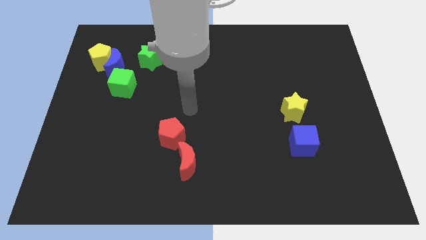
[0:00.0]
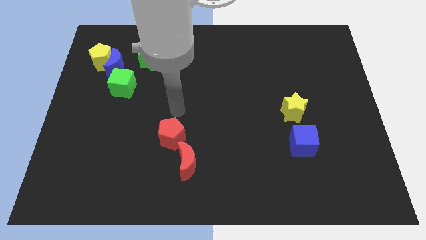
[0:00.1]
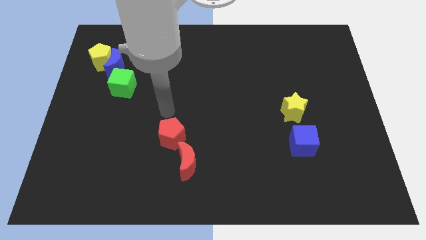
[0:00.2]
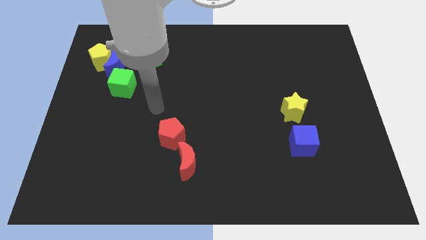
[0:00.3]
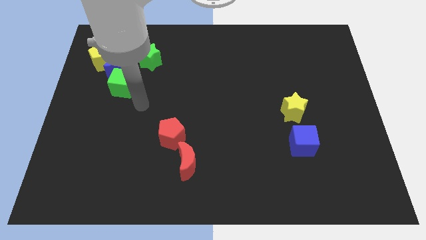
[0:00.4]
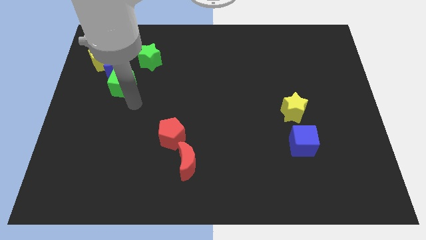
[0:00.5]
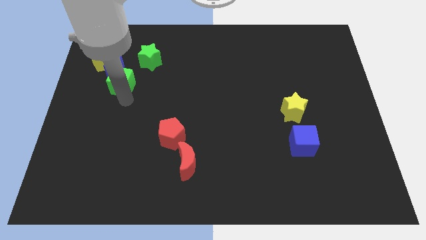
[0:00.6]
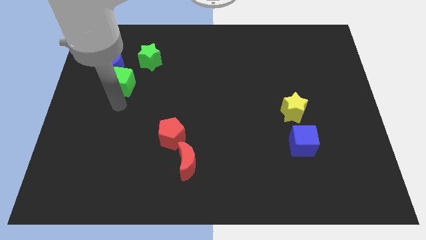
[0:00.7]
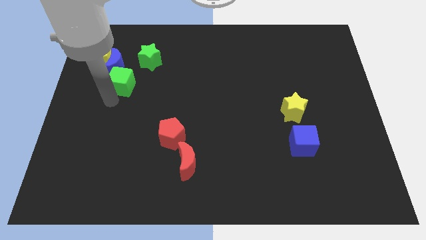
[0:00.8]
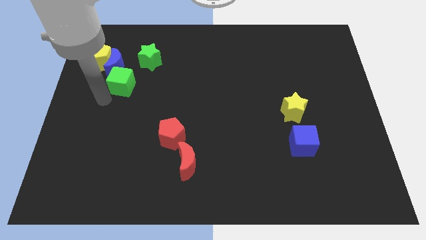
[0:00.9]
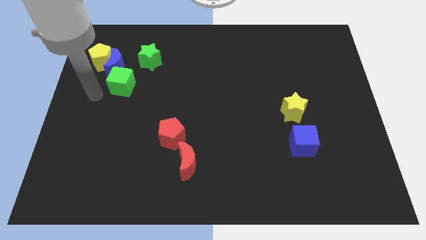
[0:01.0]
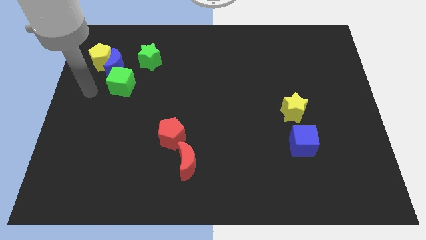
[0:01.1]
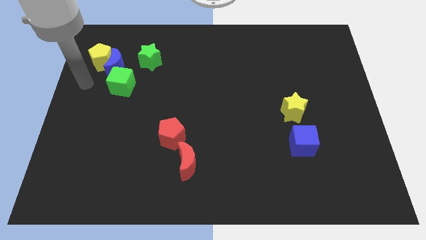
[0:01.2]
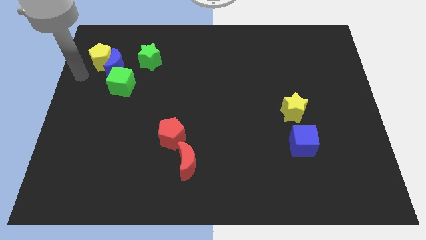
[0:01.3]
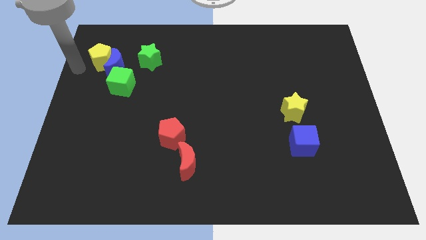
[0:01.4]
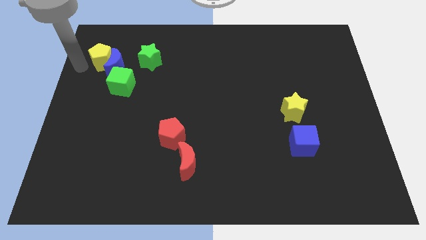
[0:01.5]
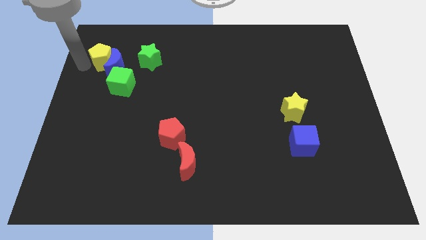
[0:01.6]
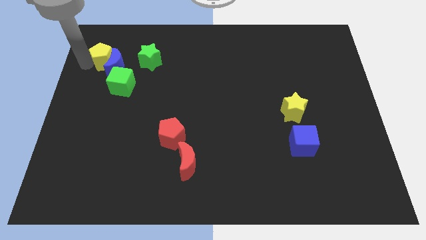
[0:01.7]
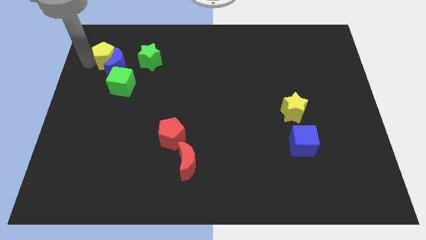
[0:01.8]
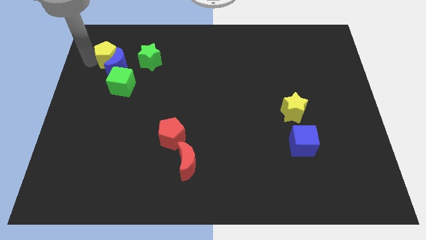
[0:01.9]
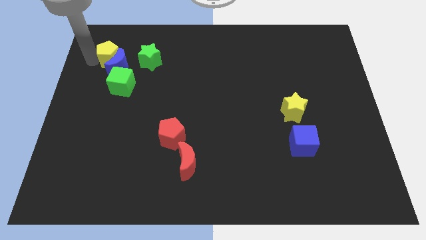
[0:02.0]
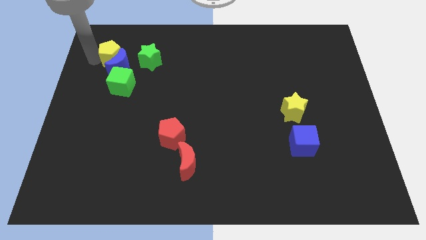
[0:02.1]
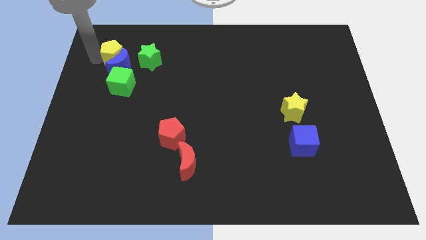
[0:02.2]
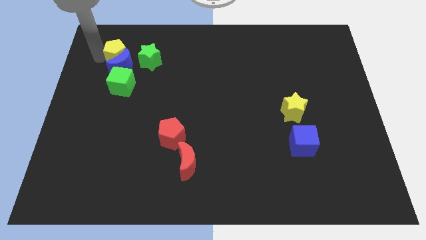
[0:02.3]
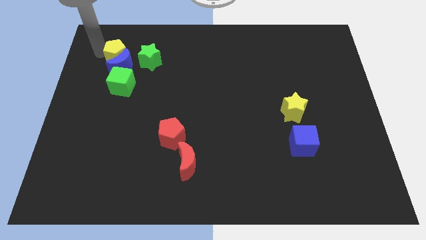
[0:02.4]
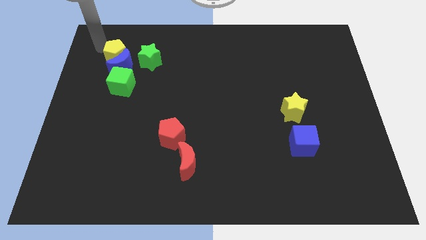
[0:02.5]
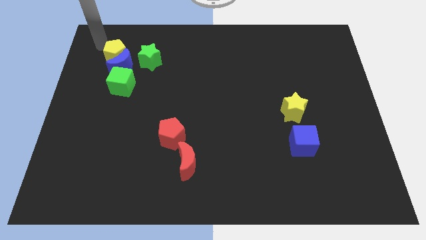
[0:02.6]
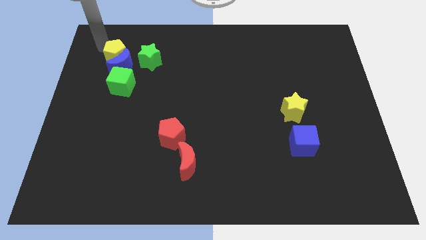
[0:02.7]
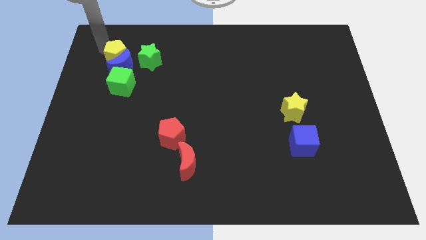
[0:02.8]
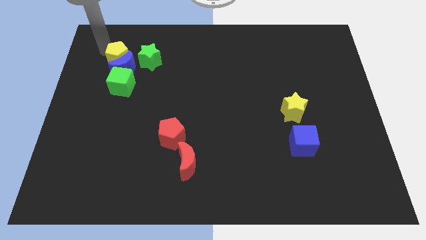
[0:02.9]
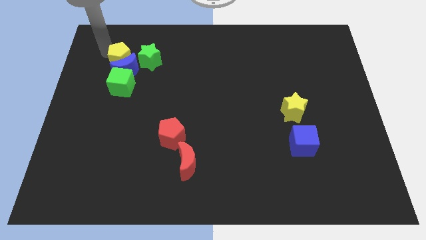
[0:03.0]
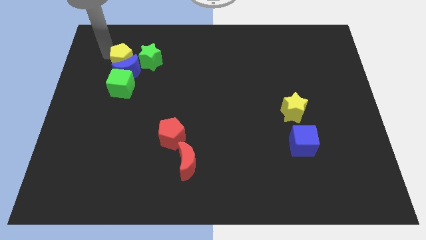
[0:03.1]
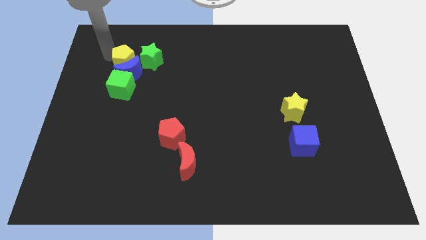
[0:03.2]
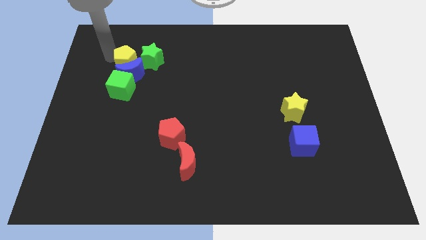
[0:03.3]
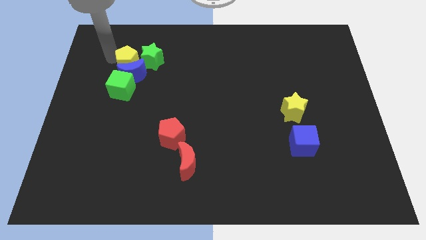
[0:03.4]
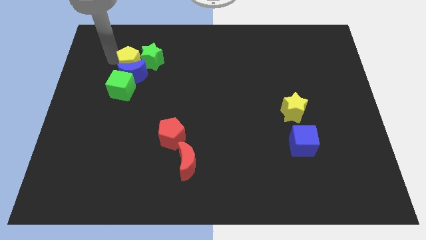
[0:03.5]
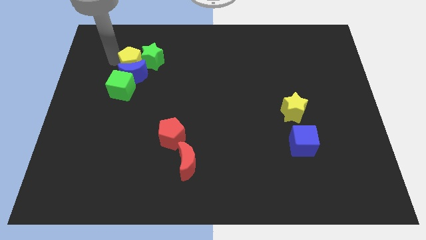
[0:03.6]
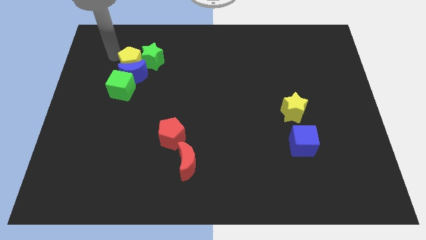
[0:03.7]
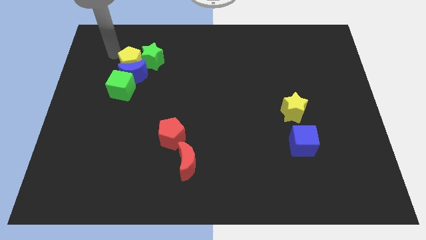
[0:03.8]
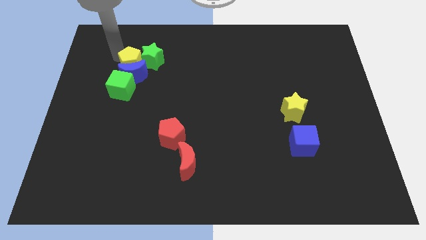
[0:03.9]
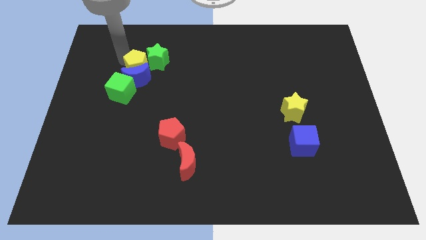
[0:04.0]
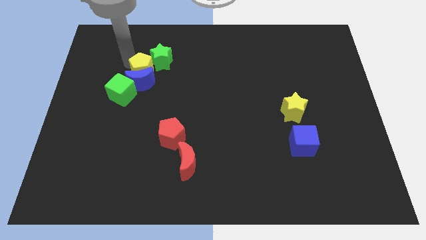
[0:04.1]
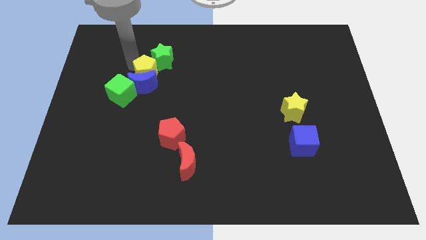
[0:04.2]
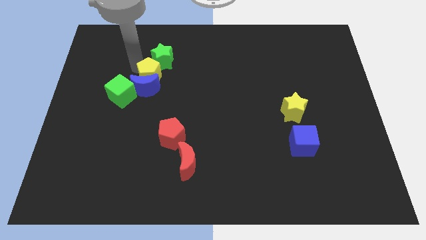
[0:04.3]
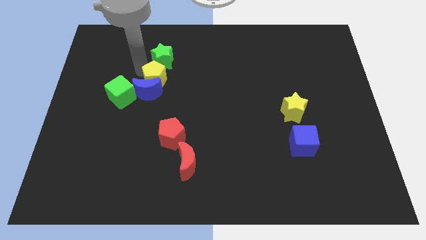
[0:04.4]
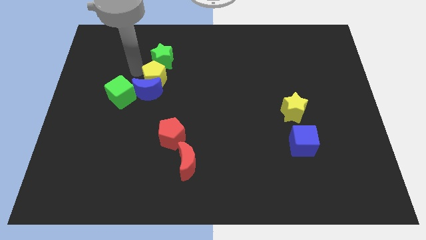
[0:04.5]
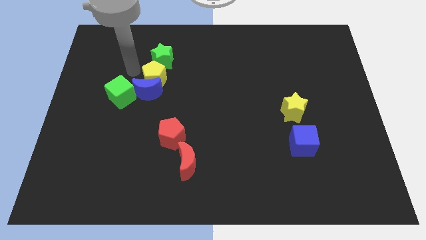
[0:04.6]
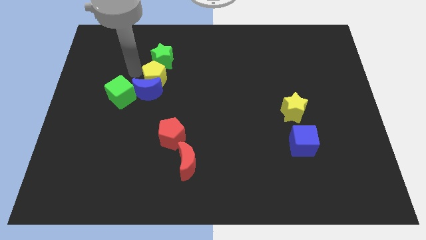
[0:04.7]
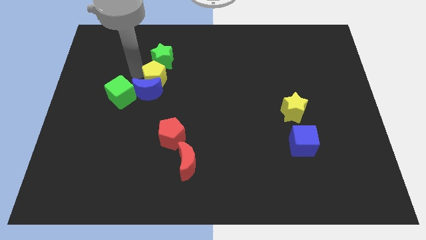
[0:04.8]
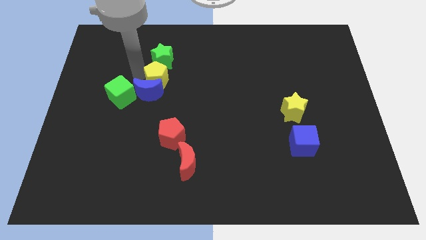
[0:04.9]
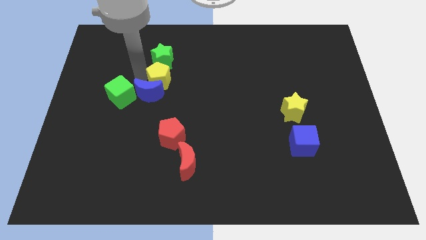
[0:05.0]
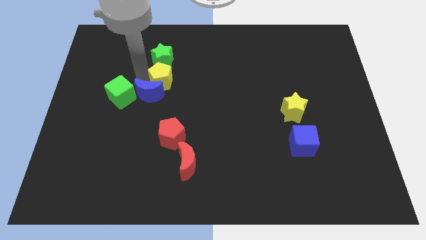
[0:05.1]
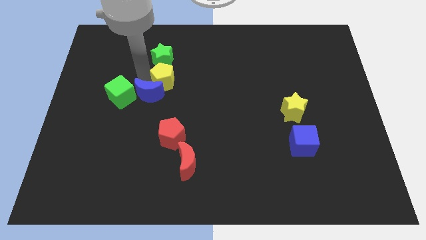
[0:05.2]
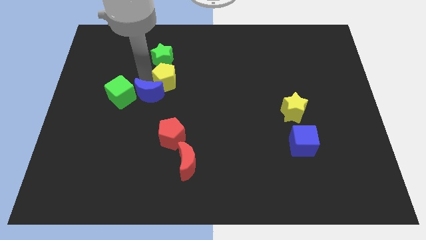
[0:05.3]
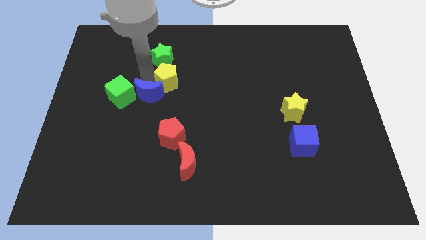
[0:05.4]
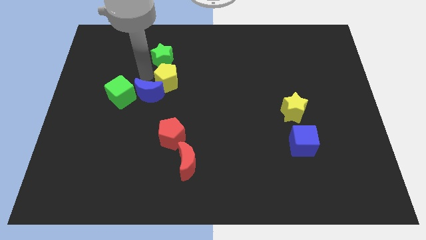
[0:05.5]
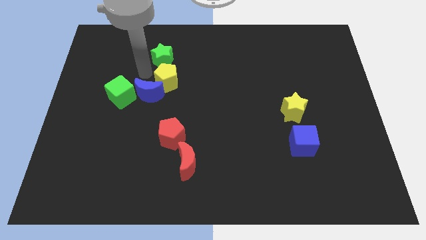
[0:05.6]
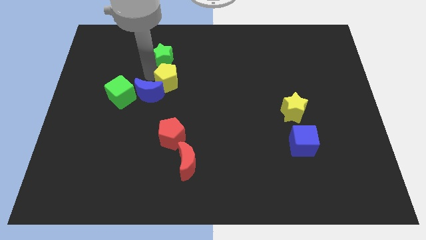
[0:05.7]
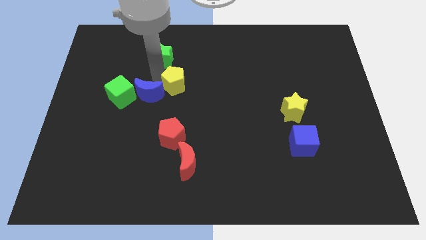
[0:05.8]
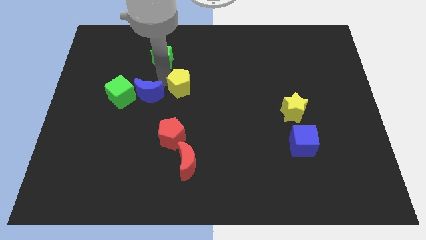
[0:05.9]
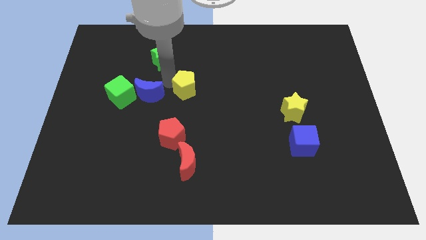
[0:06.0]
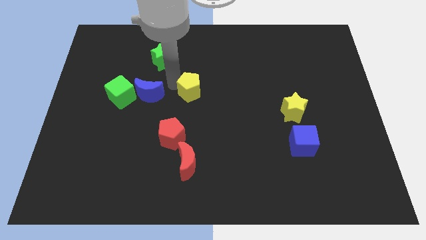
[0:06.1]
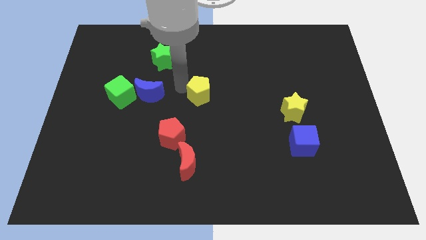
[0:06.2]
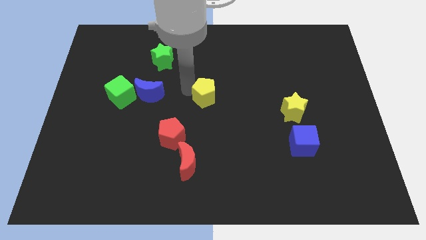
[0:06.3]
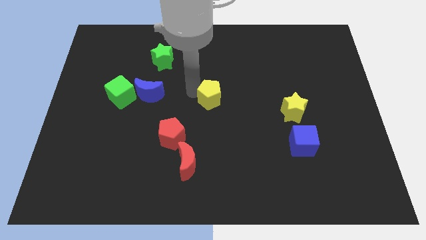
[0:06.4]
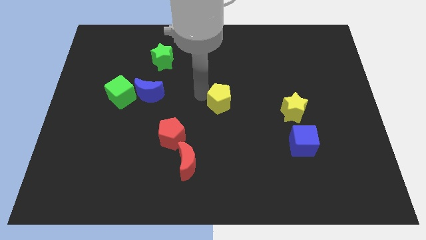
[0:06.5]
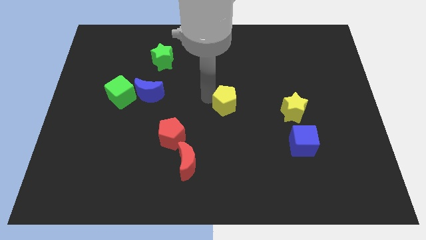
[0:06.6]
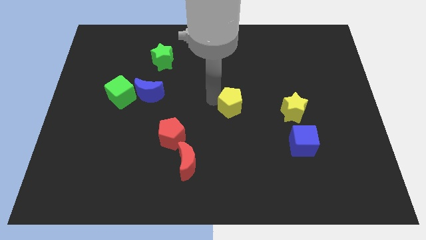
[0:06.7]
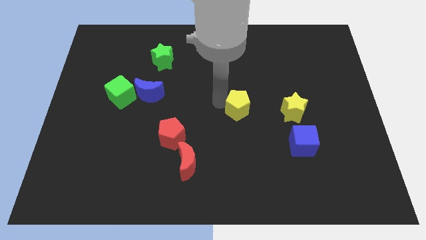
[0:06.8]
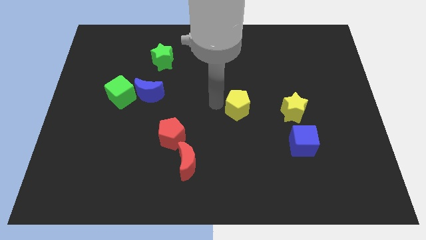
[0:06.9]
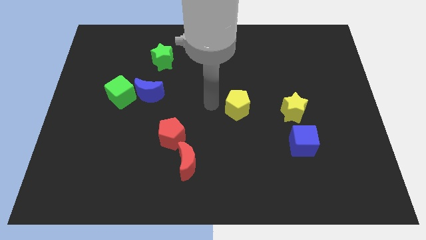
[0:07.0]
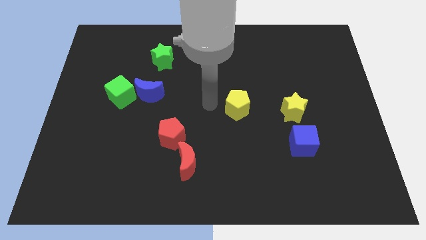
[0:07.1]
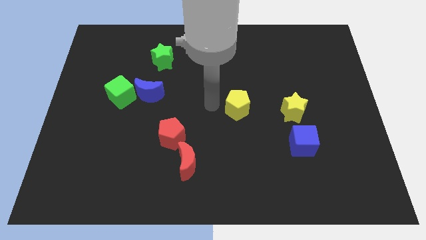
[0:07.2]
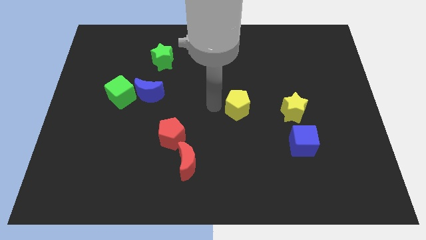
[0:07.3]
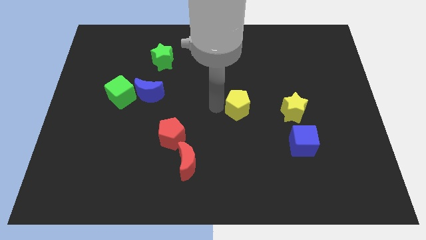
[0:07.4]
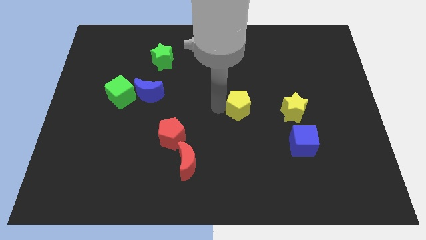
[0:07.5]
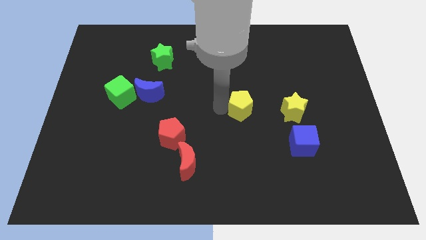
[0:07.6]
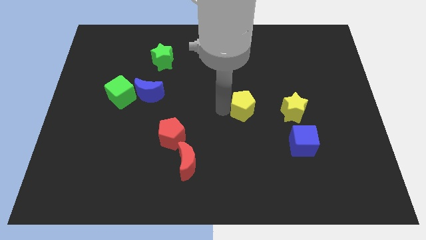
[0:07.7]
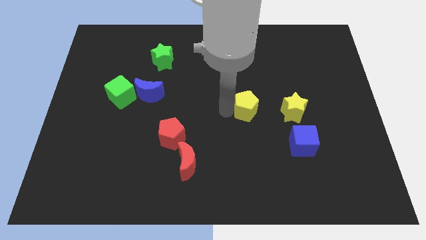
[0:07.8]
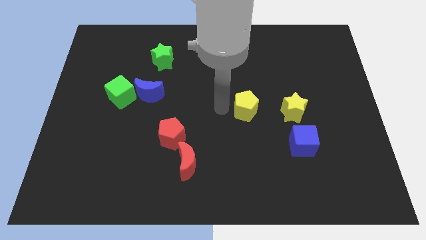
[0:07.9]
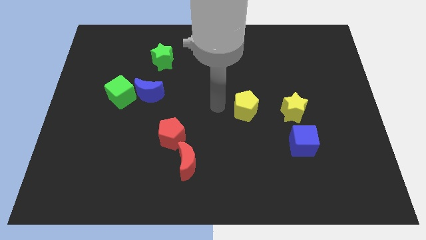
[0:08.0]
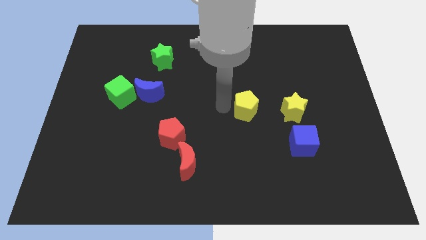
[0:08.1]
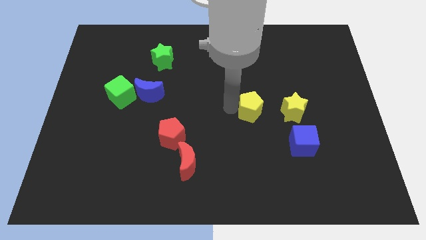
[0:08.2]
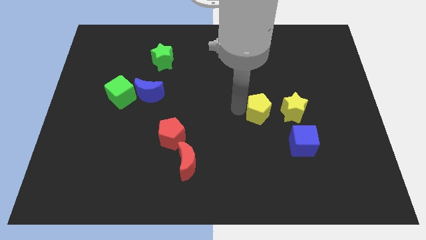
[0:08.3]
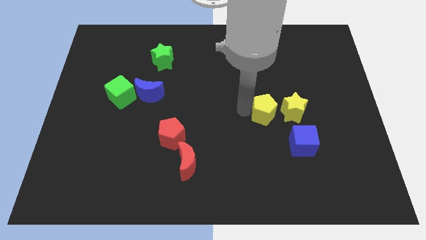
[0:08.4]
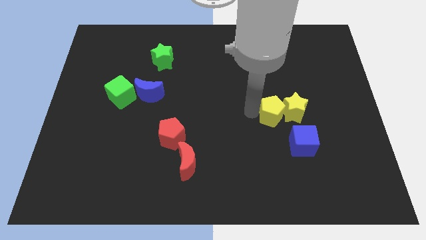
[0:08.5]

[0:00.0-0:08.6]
push the yellow pentagon towards the yellow star
